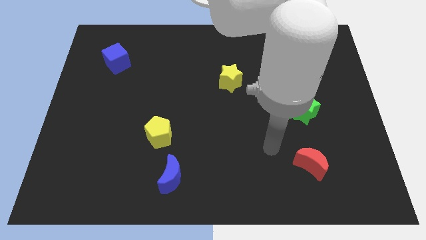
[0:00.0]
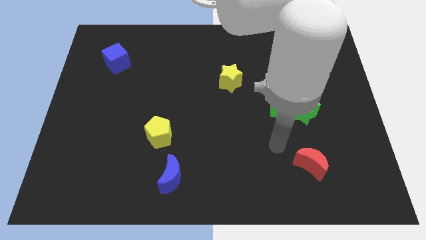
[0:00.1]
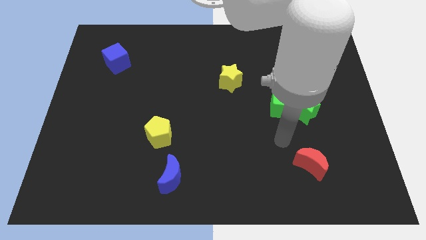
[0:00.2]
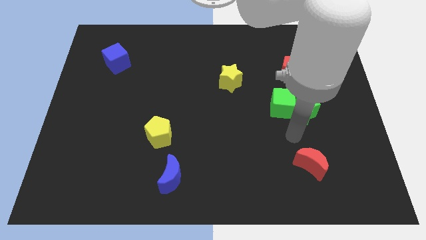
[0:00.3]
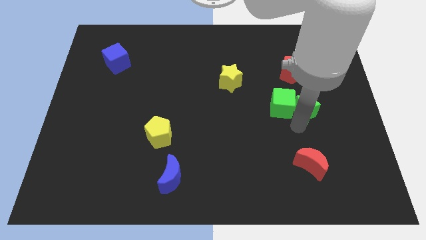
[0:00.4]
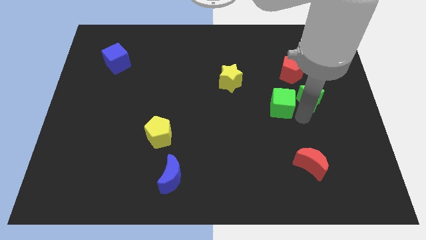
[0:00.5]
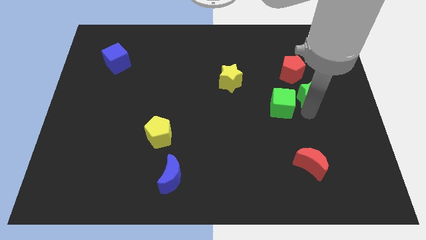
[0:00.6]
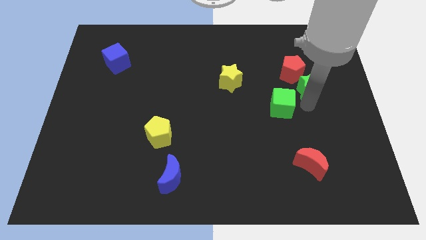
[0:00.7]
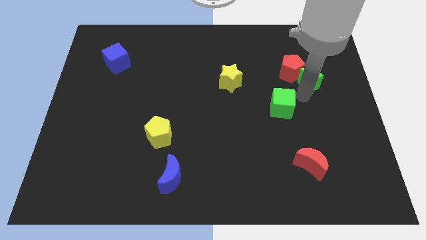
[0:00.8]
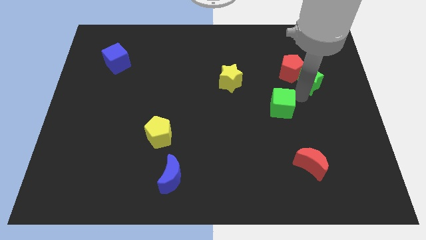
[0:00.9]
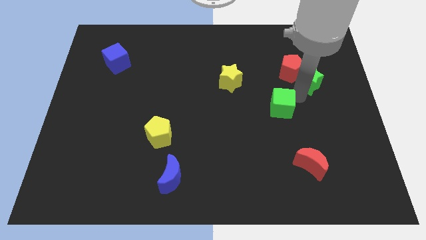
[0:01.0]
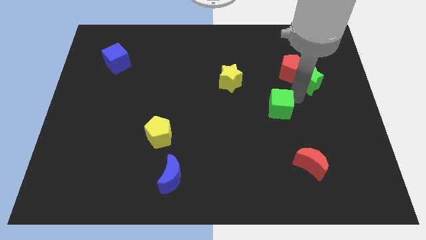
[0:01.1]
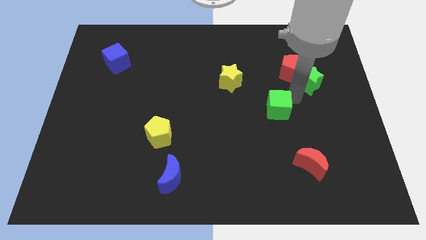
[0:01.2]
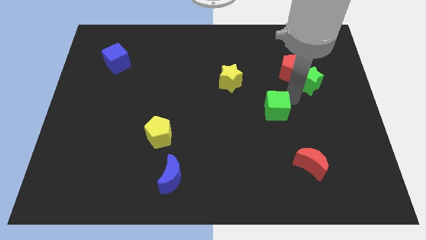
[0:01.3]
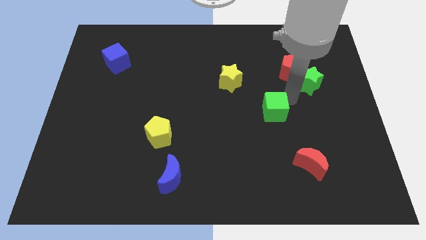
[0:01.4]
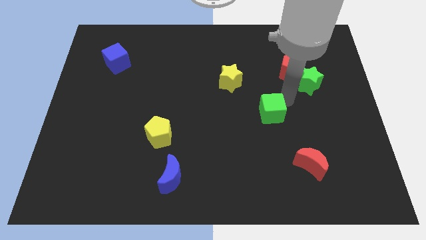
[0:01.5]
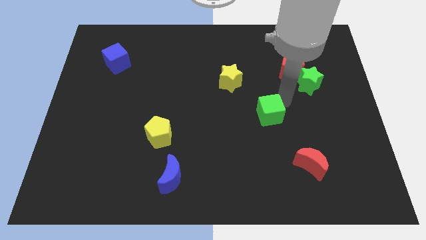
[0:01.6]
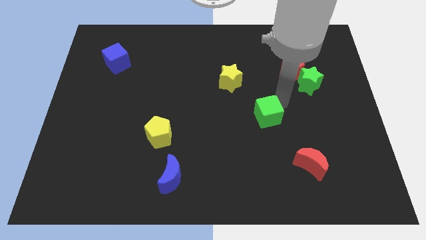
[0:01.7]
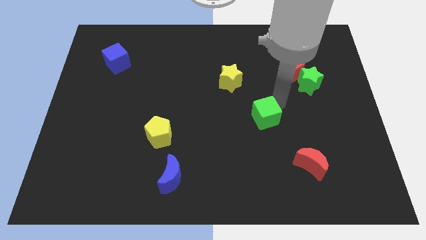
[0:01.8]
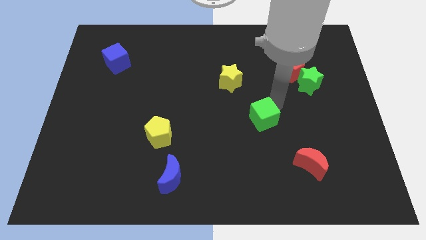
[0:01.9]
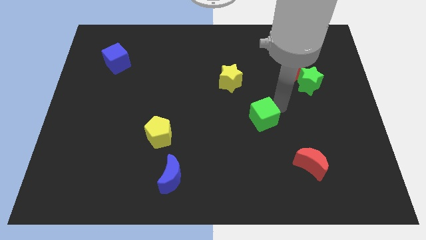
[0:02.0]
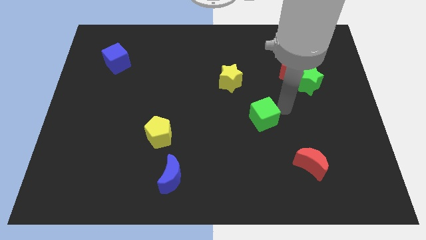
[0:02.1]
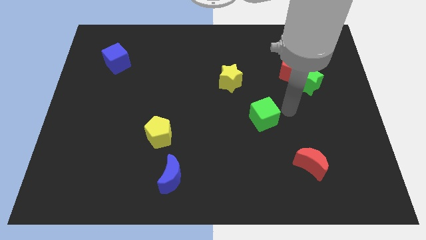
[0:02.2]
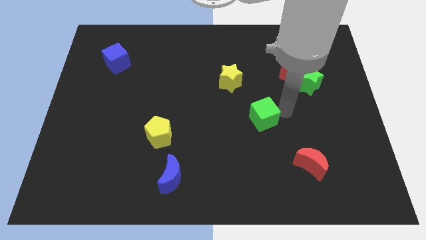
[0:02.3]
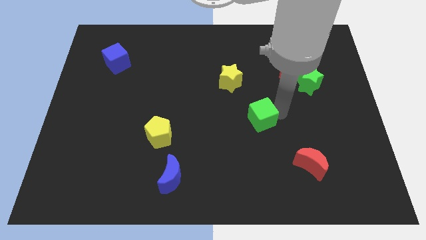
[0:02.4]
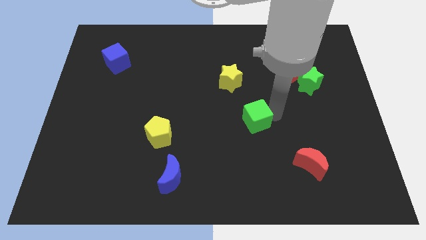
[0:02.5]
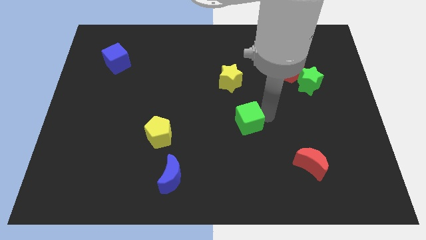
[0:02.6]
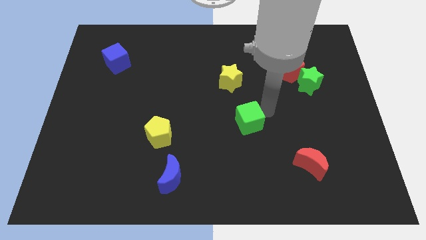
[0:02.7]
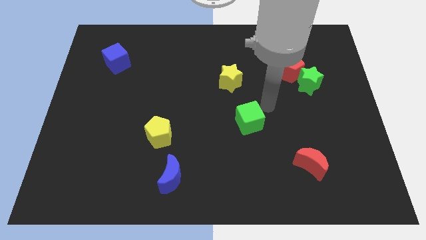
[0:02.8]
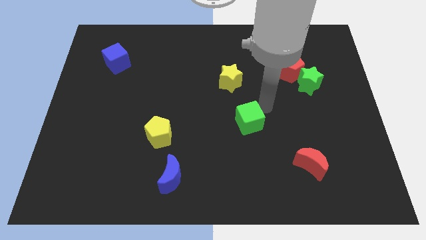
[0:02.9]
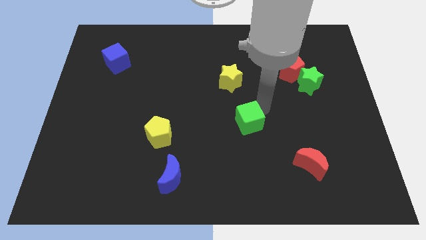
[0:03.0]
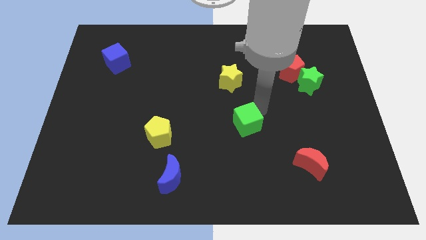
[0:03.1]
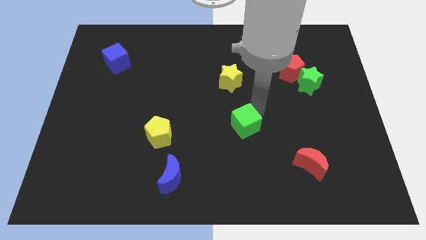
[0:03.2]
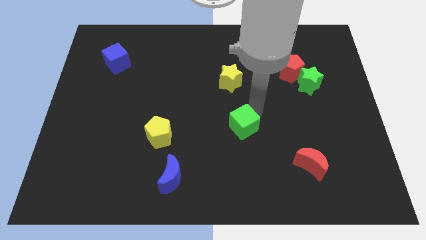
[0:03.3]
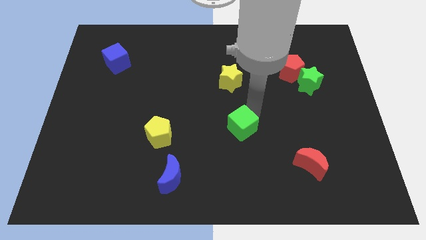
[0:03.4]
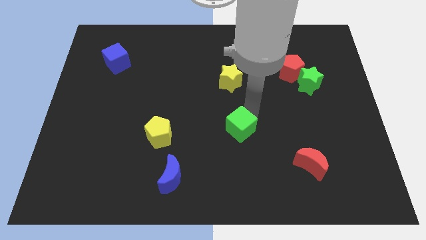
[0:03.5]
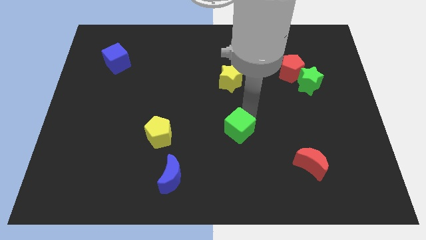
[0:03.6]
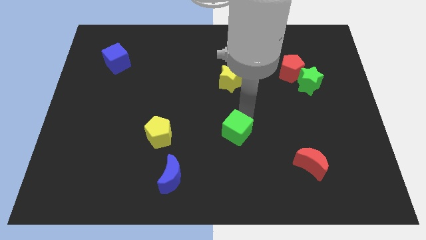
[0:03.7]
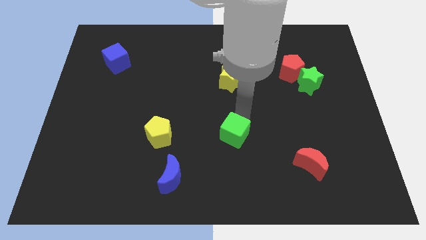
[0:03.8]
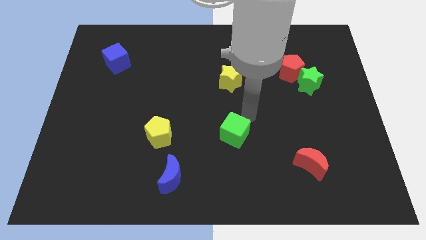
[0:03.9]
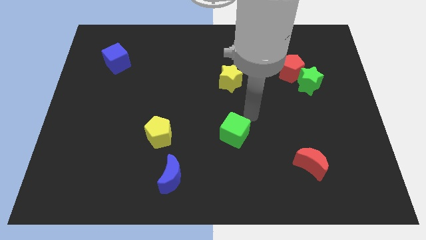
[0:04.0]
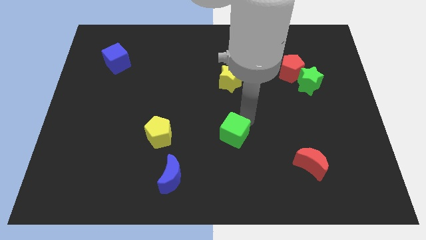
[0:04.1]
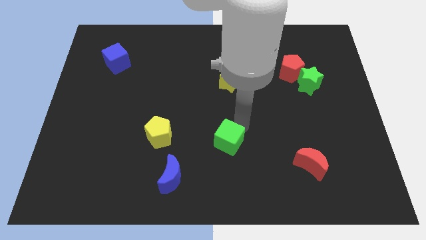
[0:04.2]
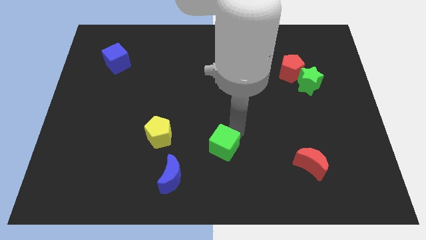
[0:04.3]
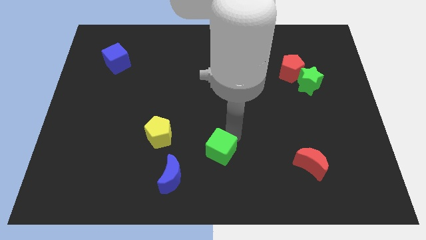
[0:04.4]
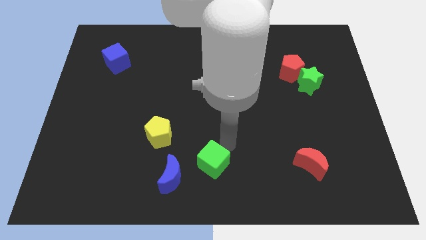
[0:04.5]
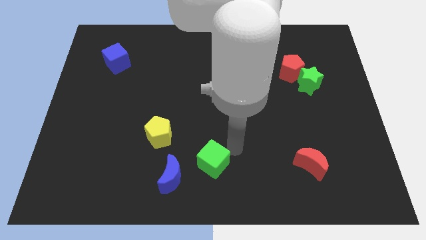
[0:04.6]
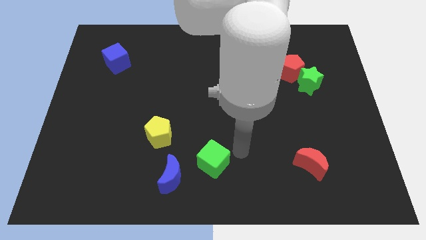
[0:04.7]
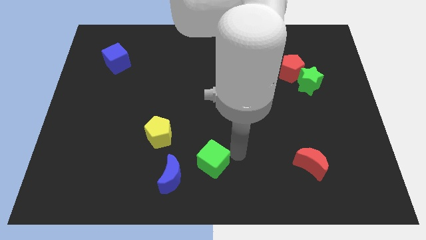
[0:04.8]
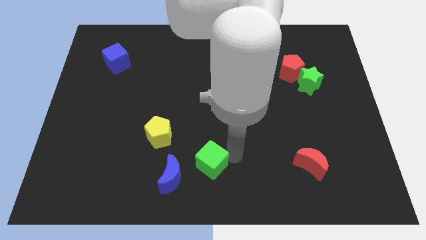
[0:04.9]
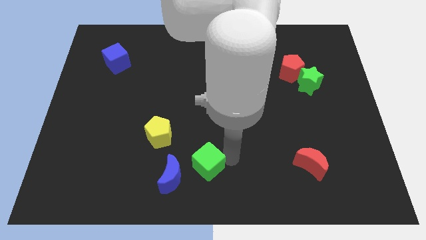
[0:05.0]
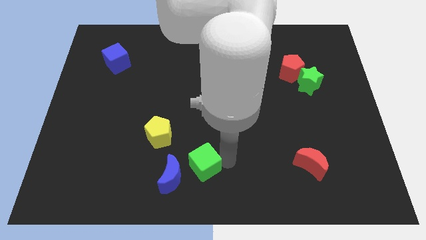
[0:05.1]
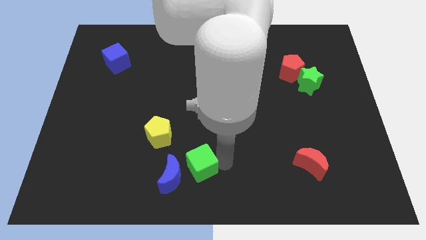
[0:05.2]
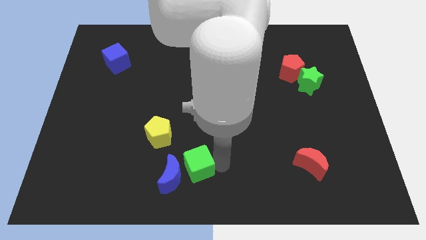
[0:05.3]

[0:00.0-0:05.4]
slide the green cube to the blue moon

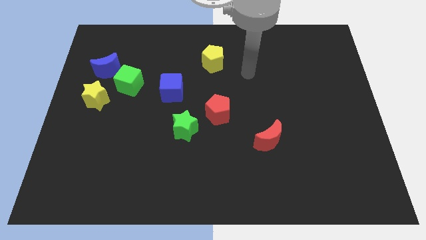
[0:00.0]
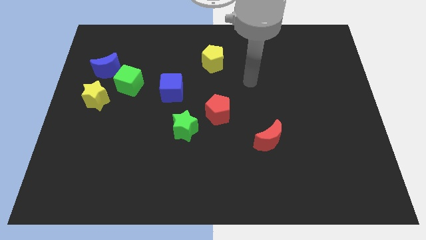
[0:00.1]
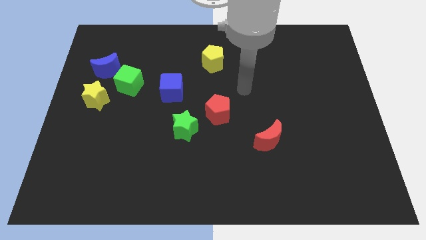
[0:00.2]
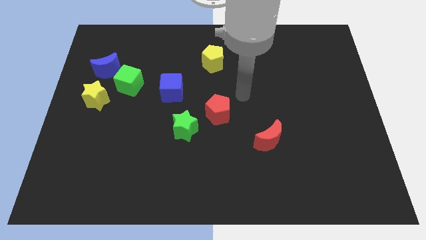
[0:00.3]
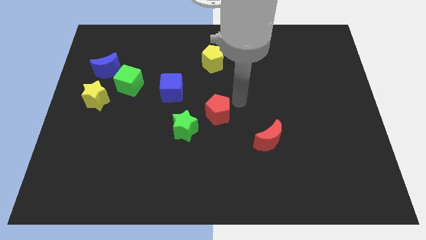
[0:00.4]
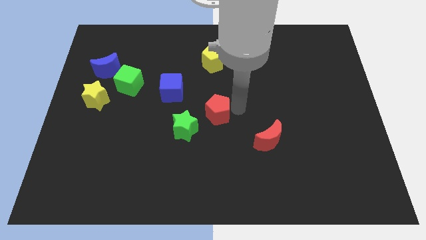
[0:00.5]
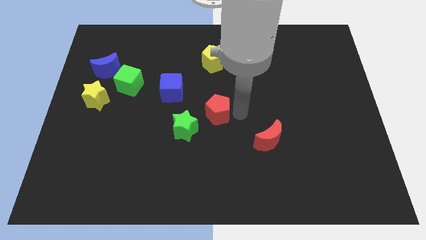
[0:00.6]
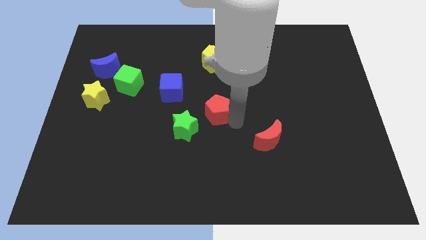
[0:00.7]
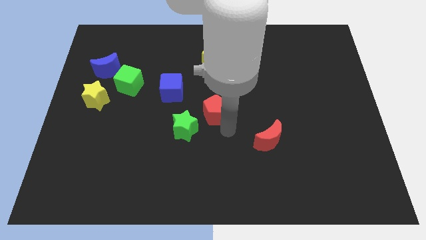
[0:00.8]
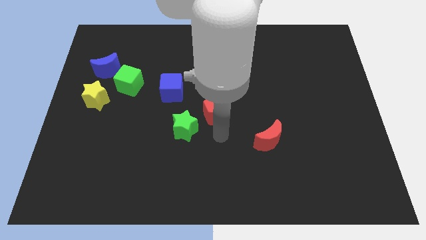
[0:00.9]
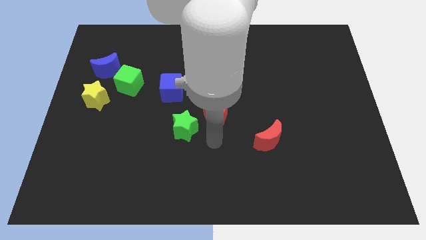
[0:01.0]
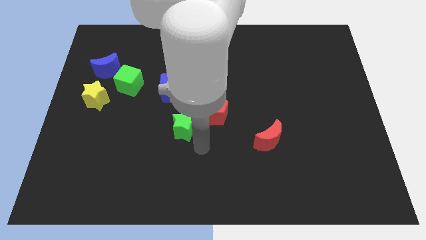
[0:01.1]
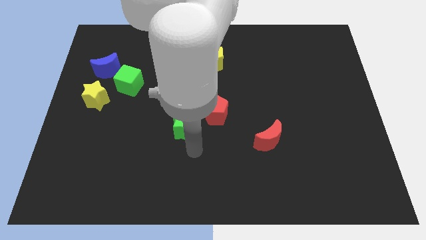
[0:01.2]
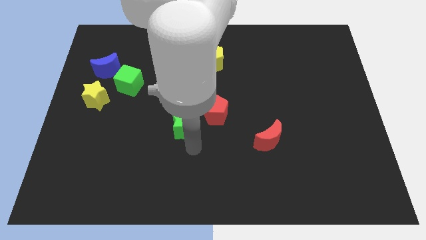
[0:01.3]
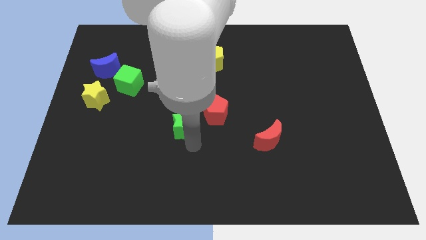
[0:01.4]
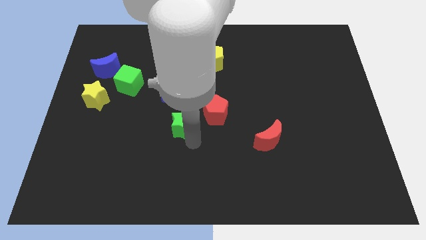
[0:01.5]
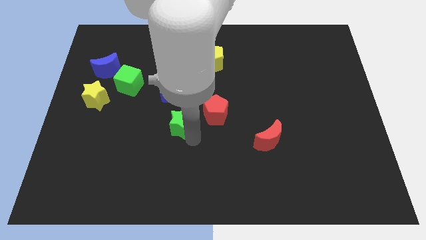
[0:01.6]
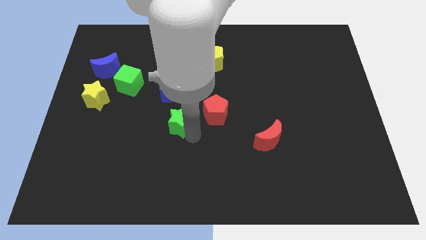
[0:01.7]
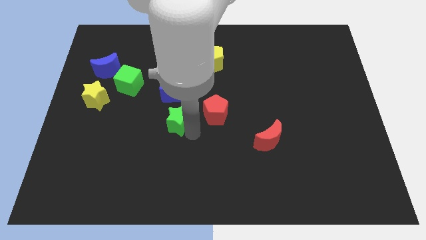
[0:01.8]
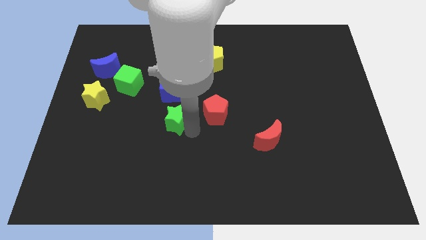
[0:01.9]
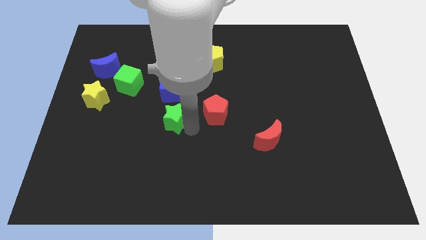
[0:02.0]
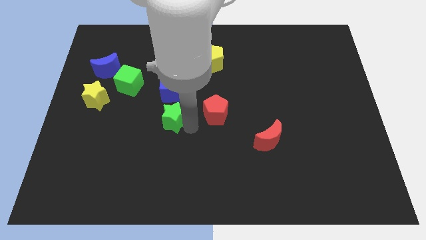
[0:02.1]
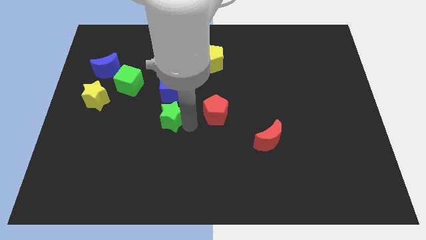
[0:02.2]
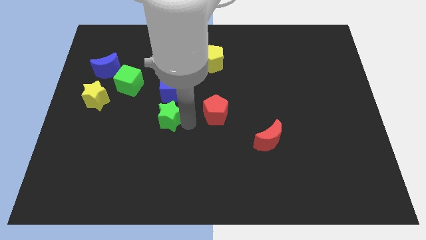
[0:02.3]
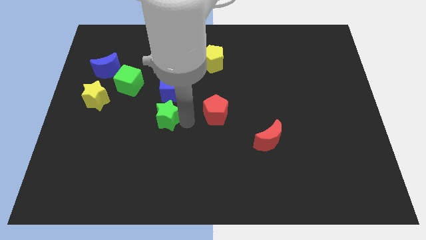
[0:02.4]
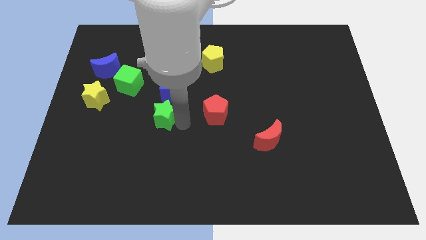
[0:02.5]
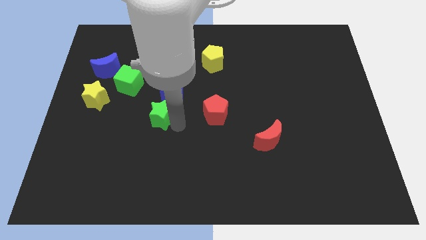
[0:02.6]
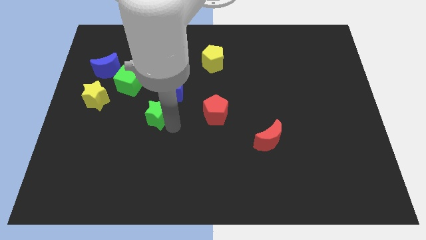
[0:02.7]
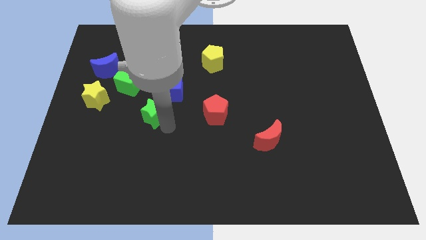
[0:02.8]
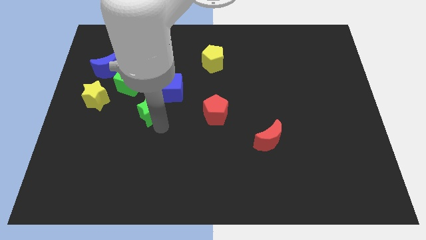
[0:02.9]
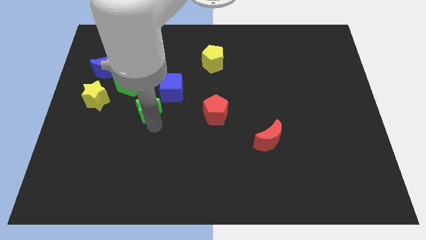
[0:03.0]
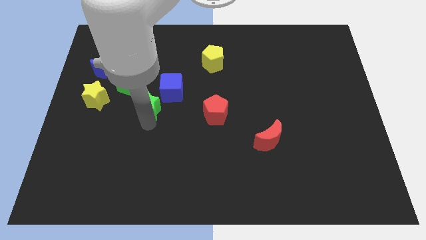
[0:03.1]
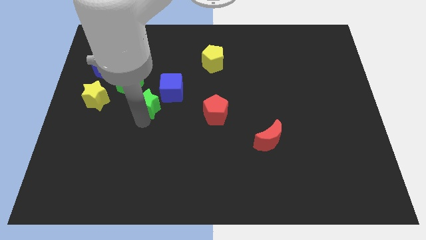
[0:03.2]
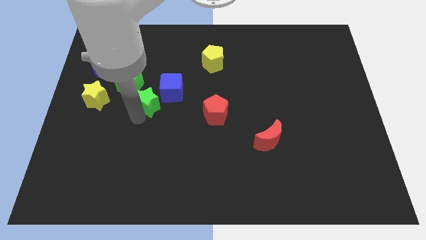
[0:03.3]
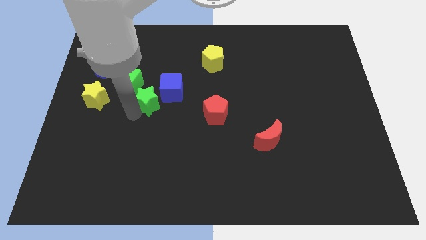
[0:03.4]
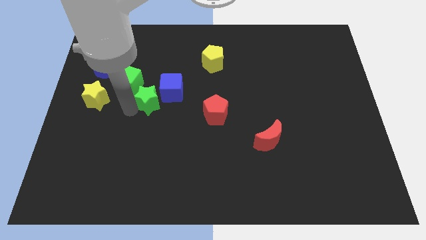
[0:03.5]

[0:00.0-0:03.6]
put the green star close to the blue cube
